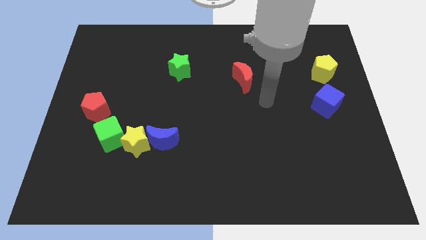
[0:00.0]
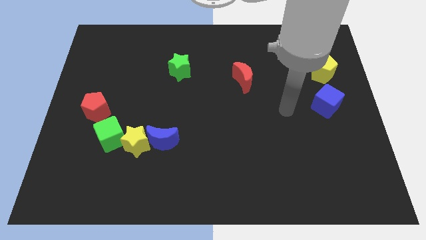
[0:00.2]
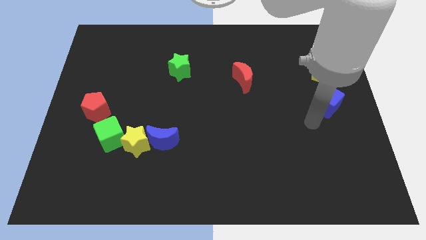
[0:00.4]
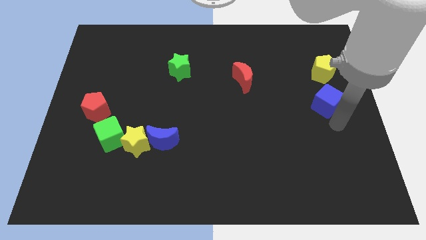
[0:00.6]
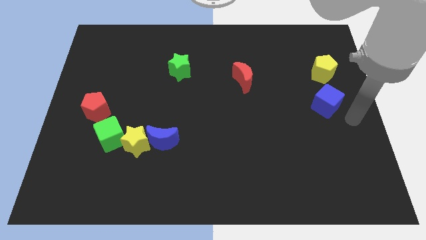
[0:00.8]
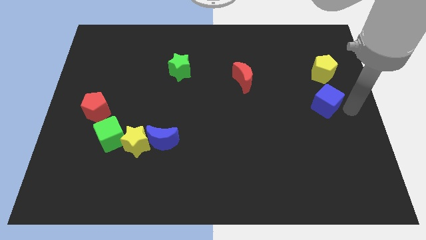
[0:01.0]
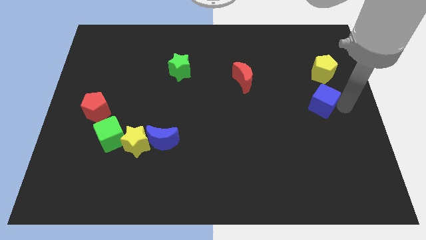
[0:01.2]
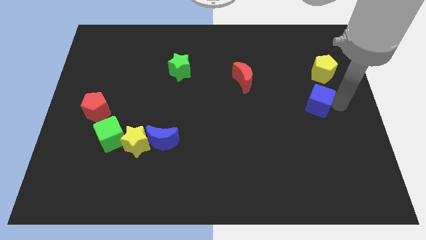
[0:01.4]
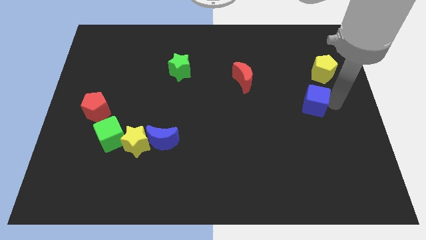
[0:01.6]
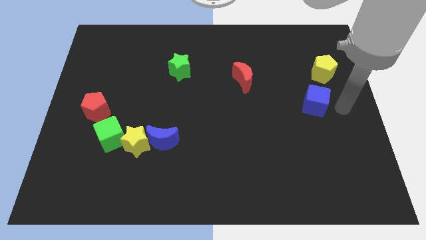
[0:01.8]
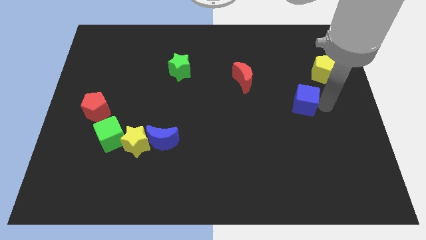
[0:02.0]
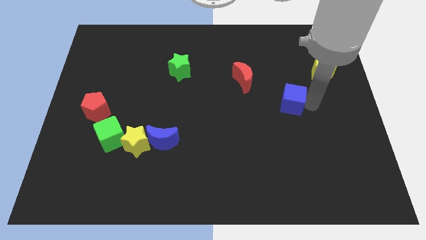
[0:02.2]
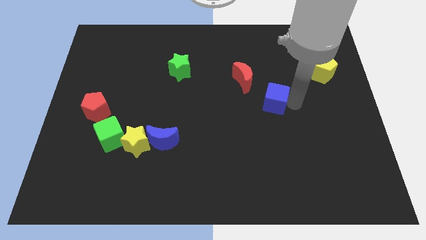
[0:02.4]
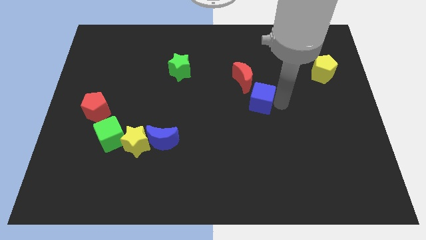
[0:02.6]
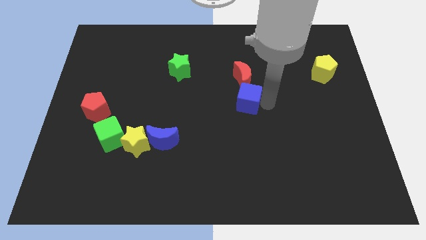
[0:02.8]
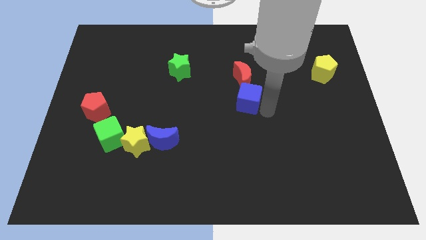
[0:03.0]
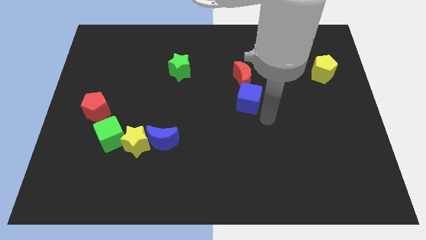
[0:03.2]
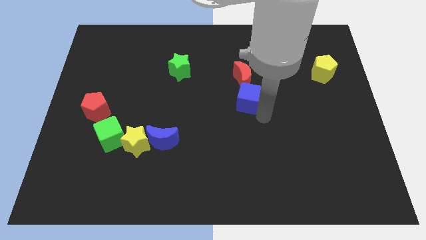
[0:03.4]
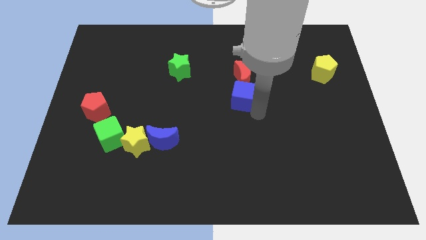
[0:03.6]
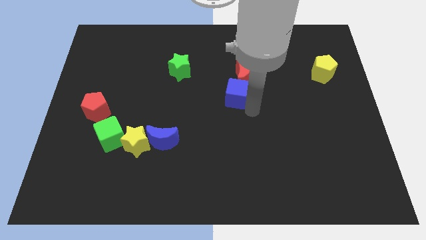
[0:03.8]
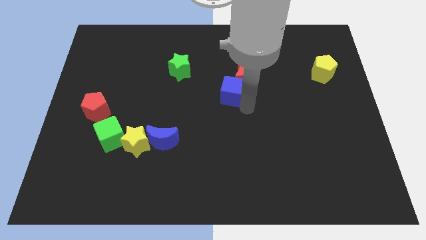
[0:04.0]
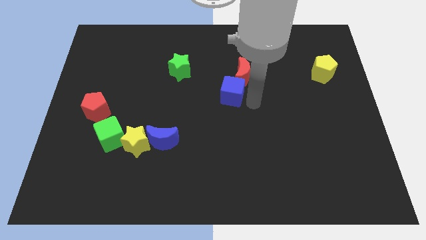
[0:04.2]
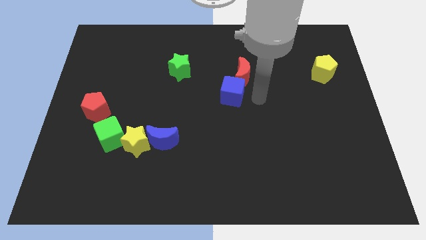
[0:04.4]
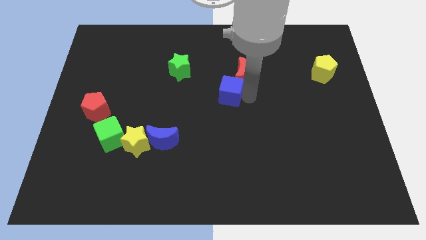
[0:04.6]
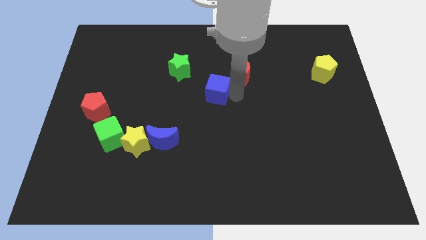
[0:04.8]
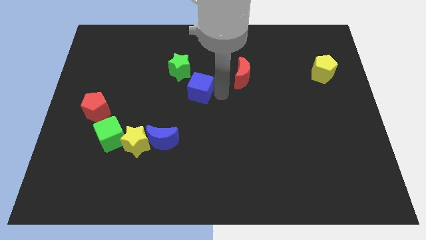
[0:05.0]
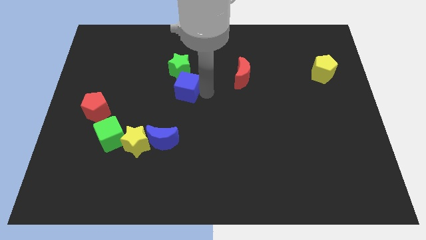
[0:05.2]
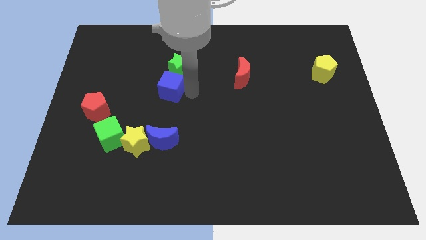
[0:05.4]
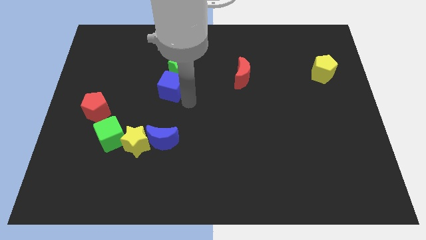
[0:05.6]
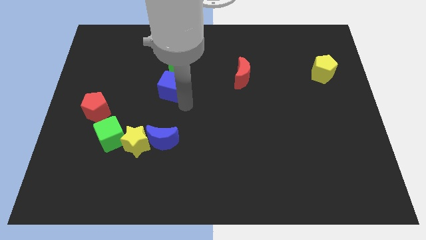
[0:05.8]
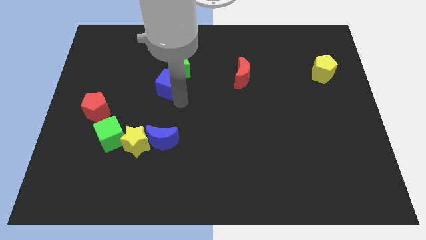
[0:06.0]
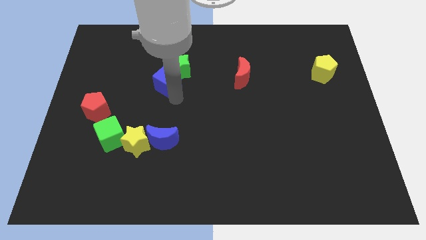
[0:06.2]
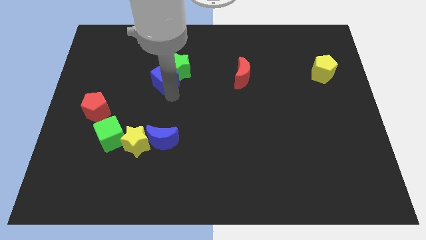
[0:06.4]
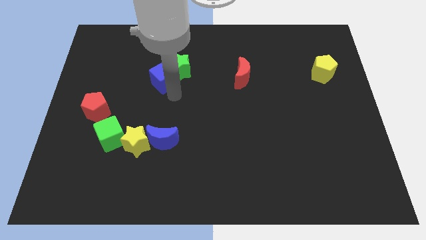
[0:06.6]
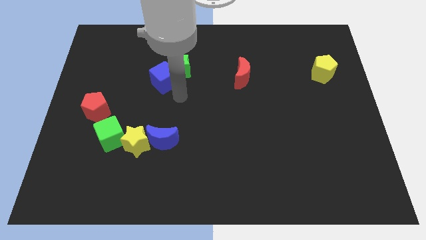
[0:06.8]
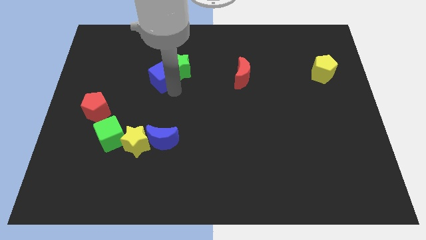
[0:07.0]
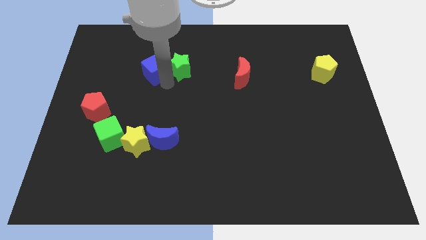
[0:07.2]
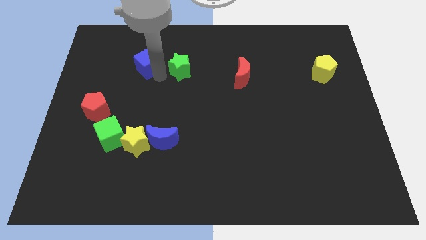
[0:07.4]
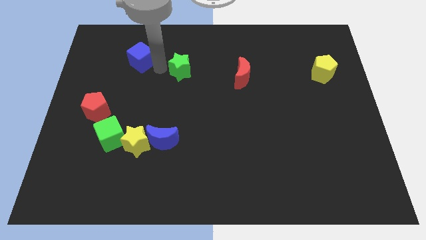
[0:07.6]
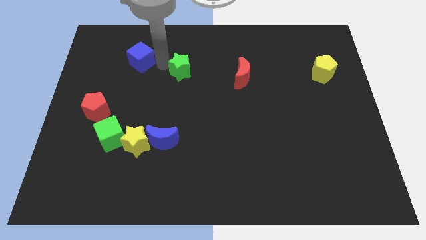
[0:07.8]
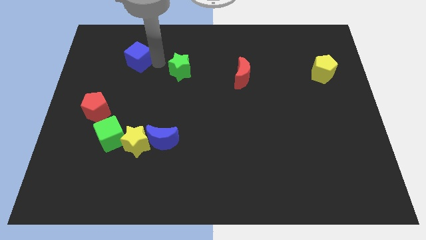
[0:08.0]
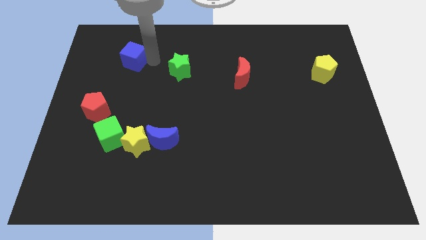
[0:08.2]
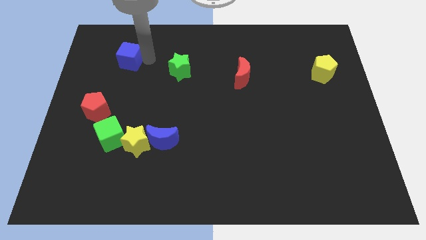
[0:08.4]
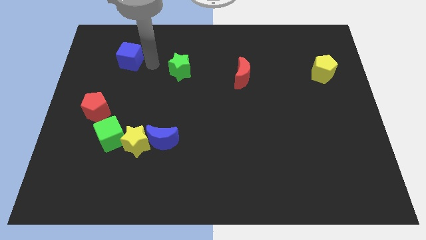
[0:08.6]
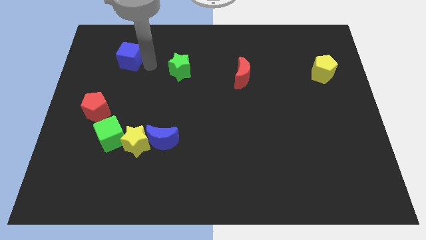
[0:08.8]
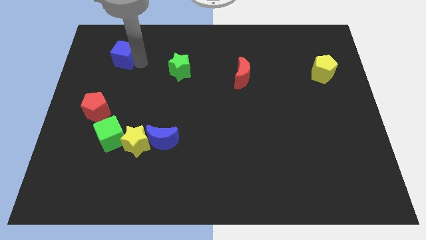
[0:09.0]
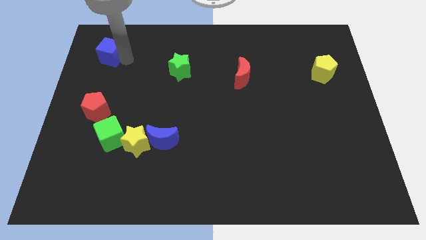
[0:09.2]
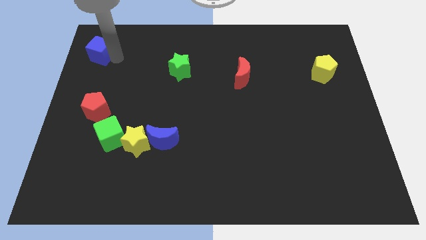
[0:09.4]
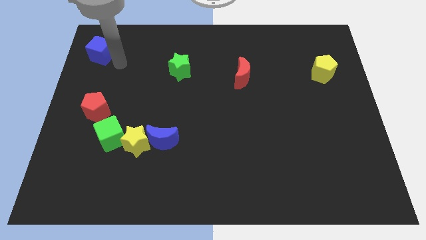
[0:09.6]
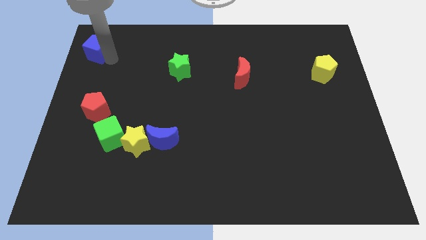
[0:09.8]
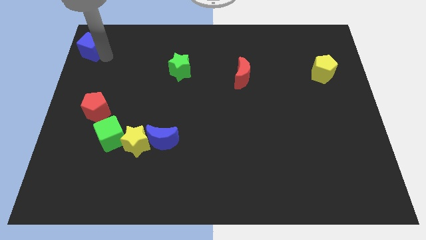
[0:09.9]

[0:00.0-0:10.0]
move the blue cube to the top left of the board

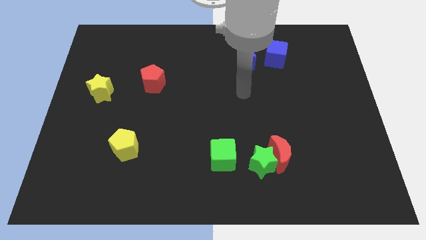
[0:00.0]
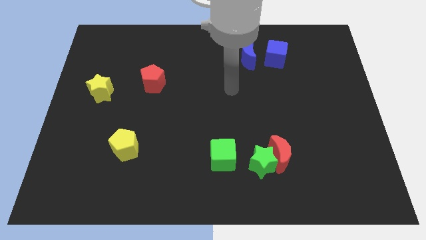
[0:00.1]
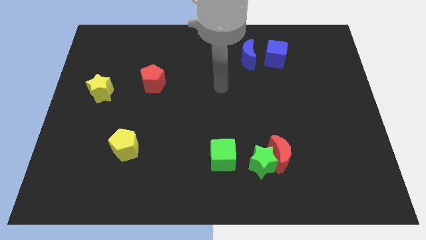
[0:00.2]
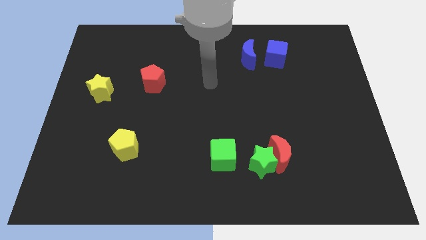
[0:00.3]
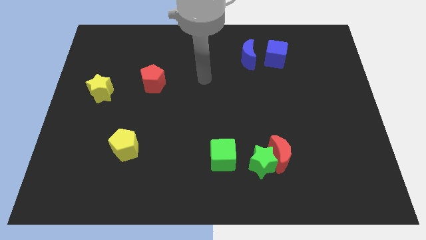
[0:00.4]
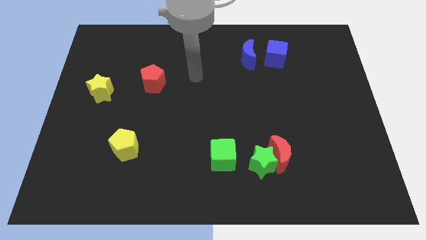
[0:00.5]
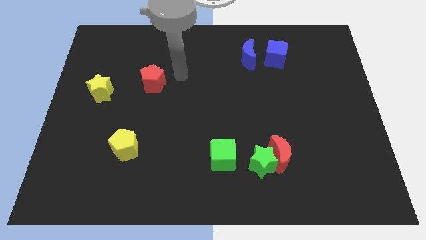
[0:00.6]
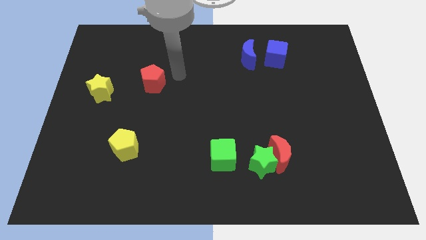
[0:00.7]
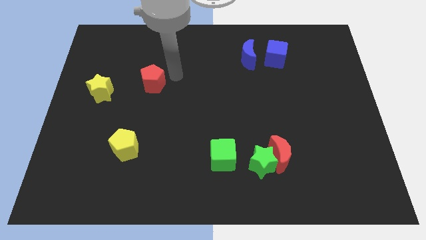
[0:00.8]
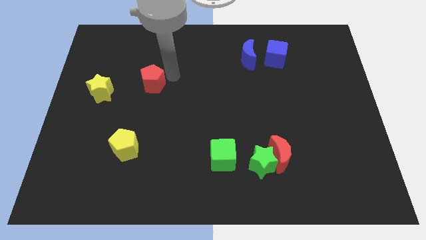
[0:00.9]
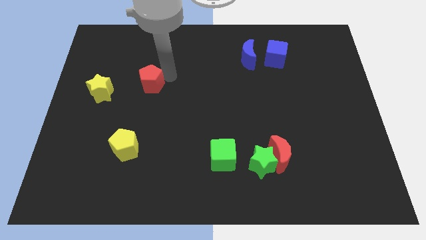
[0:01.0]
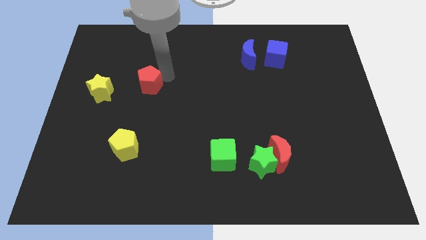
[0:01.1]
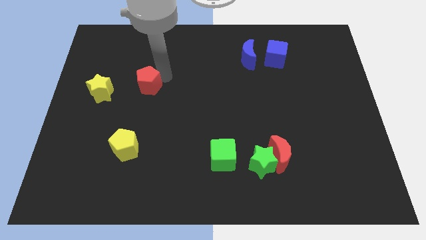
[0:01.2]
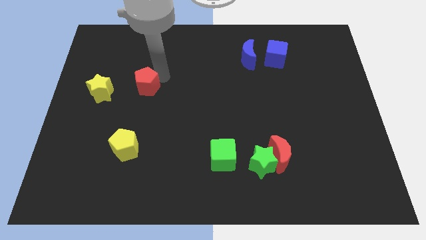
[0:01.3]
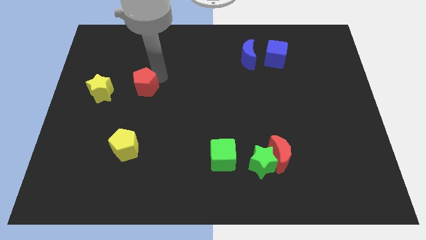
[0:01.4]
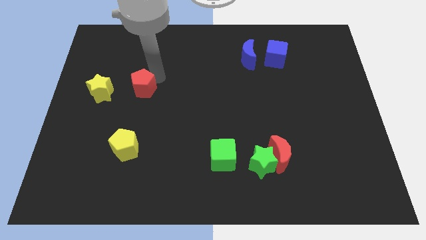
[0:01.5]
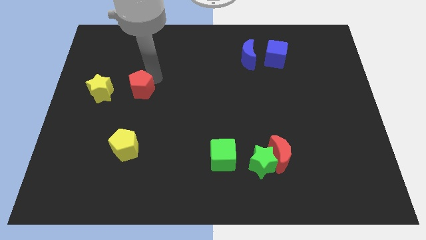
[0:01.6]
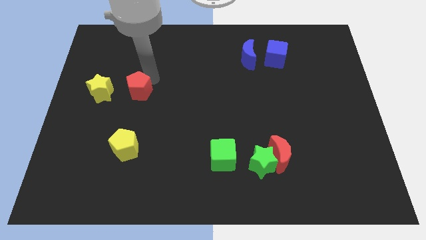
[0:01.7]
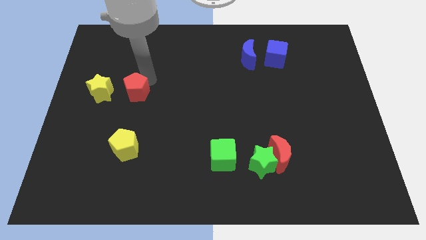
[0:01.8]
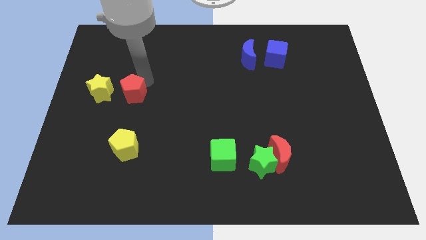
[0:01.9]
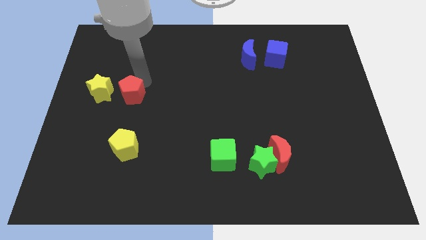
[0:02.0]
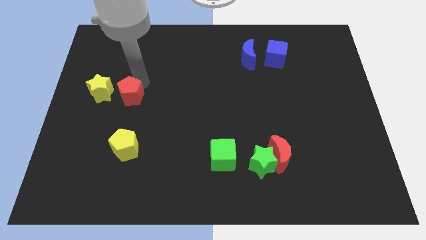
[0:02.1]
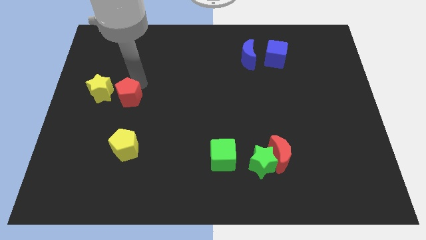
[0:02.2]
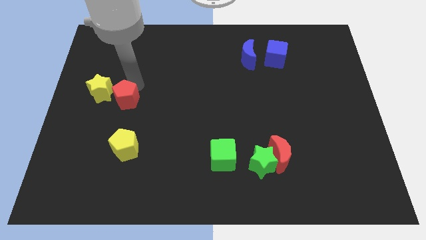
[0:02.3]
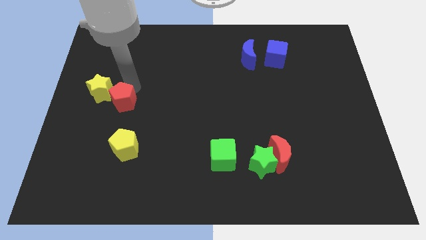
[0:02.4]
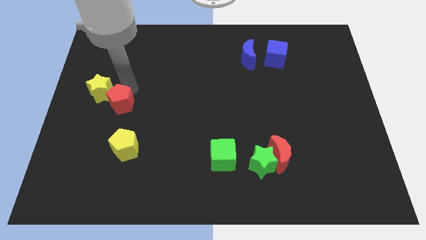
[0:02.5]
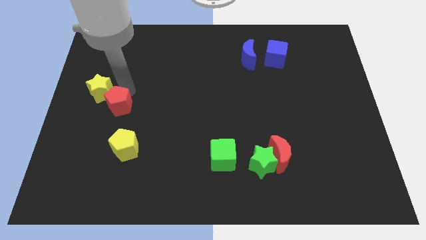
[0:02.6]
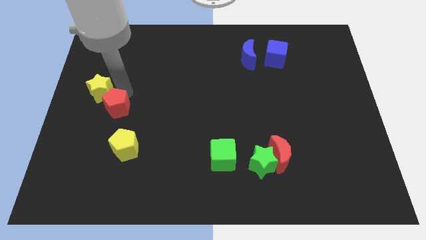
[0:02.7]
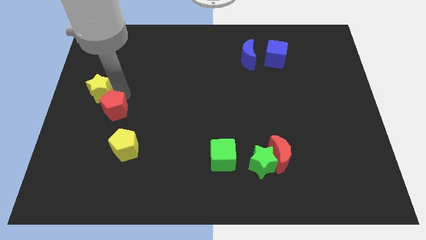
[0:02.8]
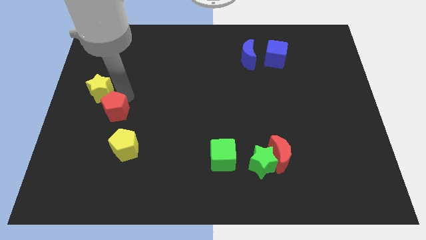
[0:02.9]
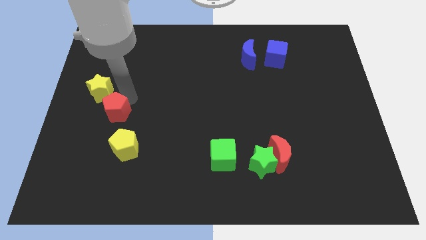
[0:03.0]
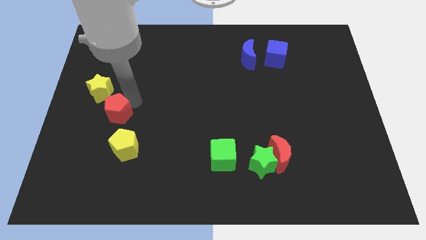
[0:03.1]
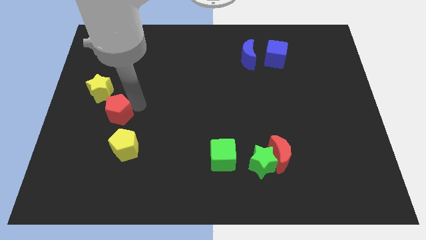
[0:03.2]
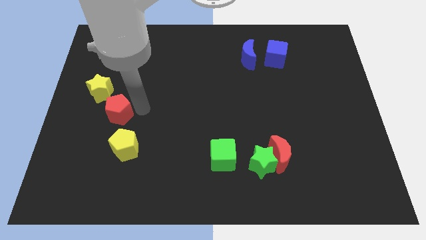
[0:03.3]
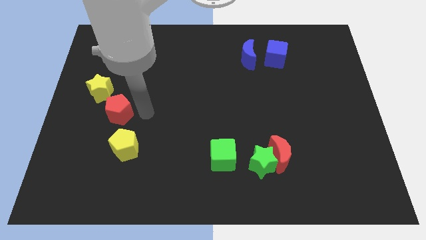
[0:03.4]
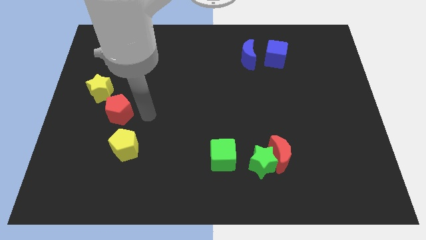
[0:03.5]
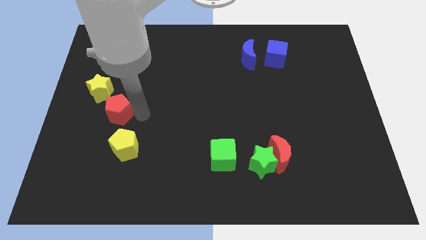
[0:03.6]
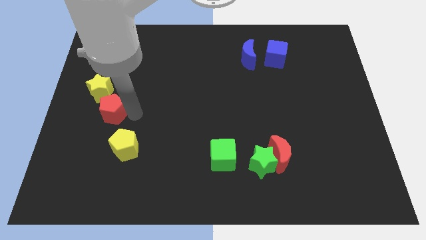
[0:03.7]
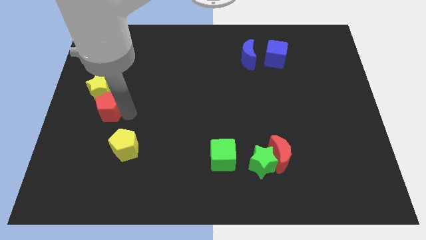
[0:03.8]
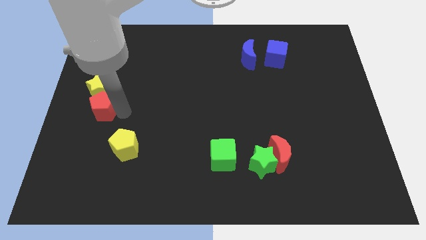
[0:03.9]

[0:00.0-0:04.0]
slide the red pentagon to the center left
